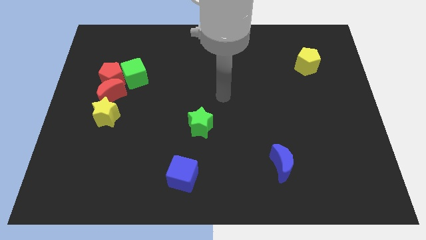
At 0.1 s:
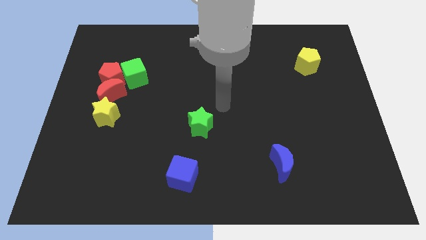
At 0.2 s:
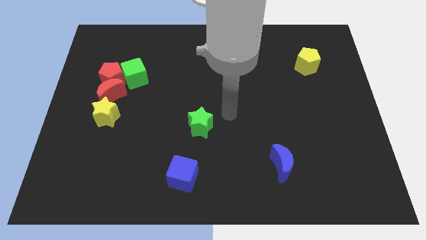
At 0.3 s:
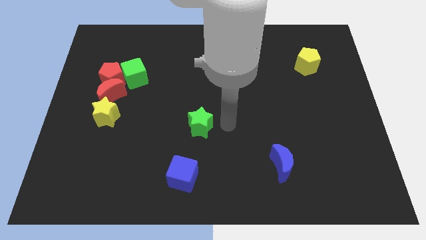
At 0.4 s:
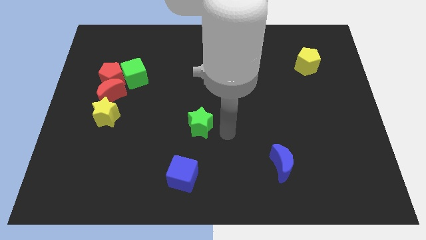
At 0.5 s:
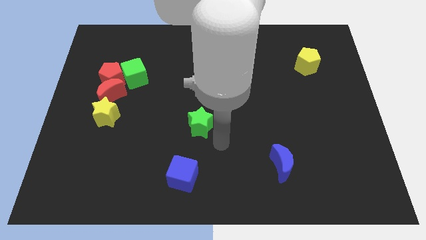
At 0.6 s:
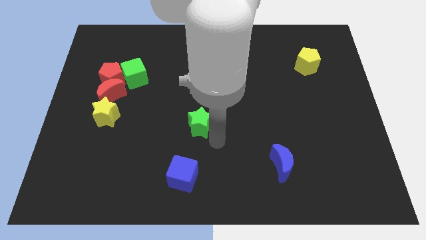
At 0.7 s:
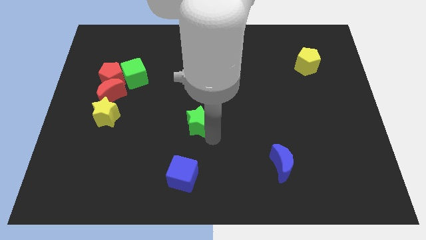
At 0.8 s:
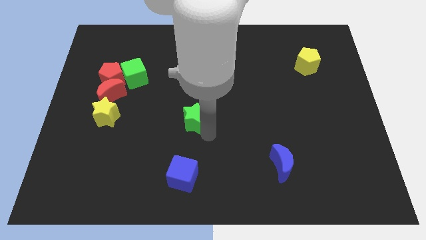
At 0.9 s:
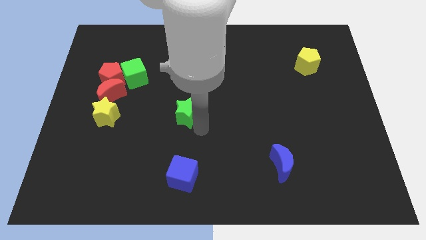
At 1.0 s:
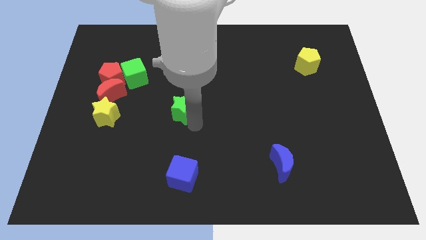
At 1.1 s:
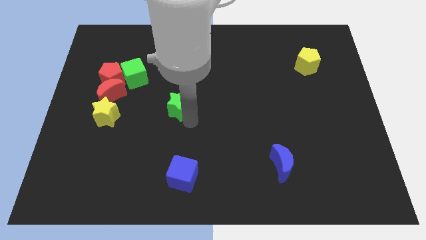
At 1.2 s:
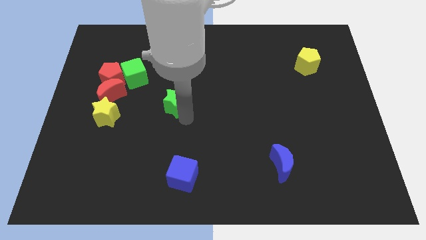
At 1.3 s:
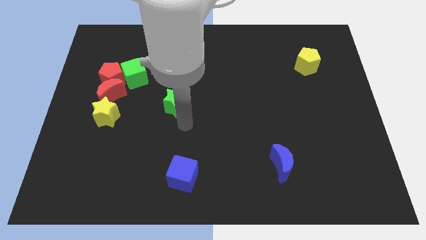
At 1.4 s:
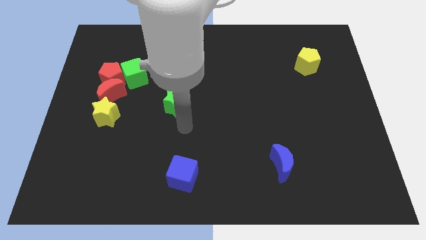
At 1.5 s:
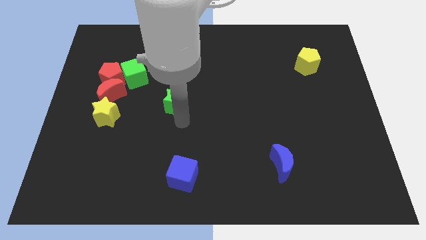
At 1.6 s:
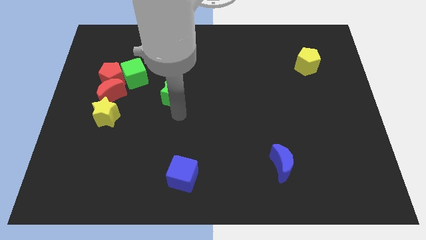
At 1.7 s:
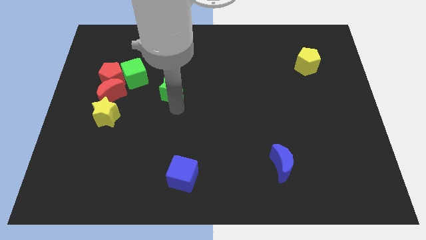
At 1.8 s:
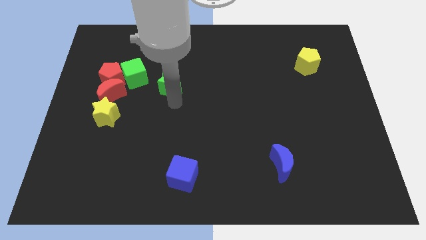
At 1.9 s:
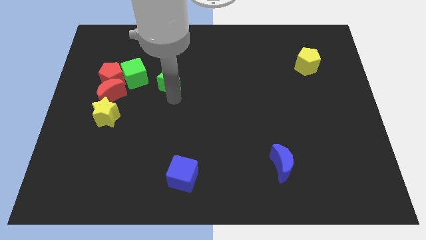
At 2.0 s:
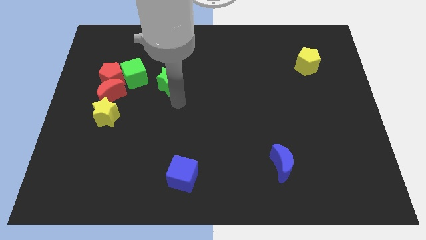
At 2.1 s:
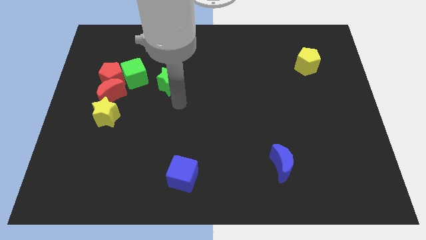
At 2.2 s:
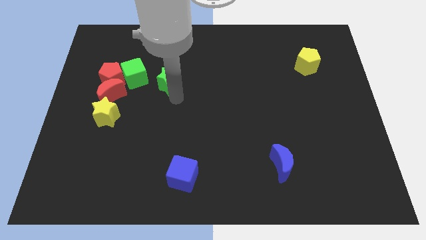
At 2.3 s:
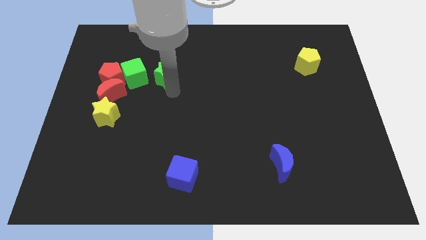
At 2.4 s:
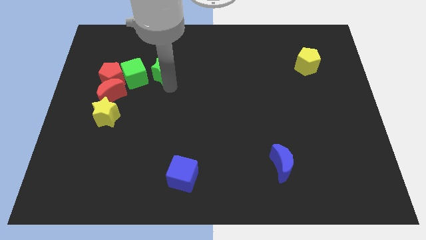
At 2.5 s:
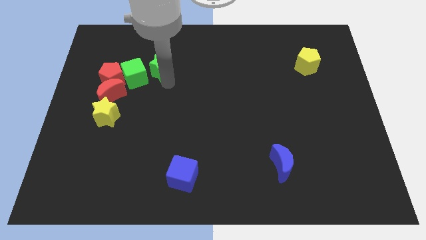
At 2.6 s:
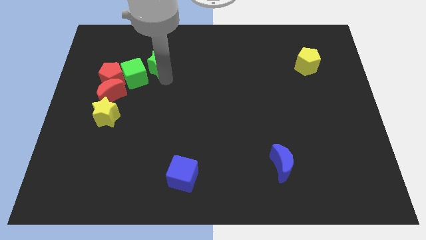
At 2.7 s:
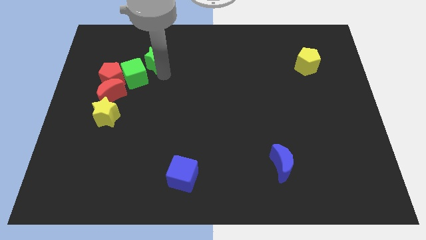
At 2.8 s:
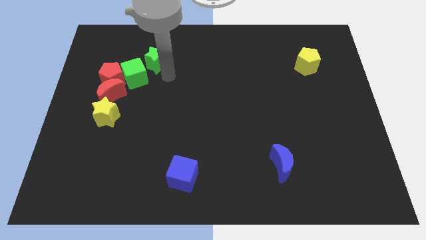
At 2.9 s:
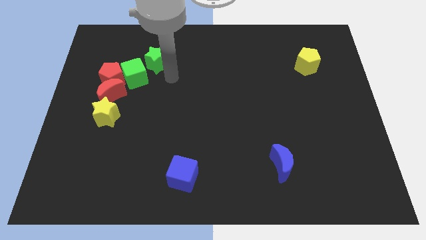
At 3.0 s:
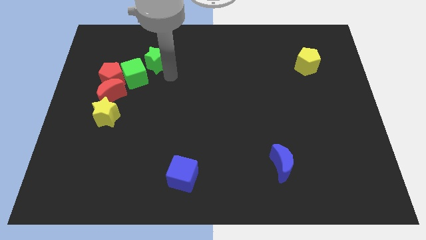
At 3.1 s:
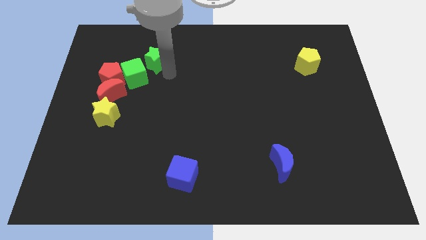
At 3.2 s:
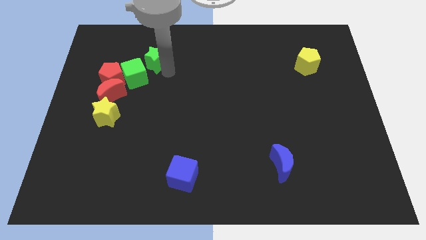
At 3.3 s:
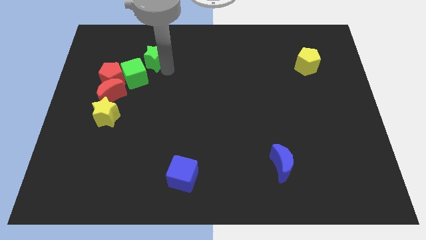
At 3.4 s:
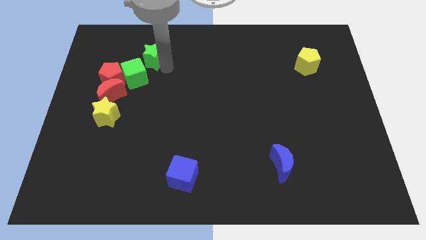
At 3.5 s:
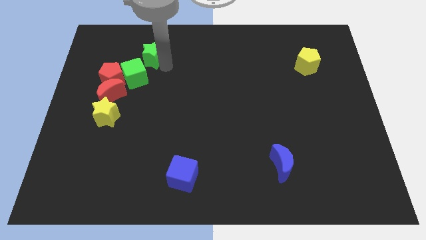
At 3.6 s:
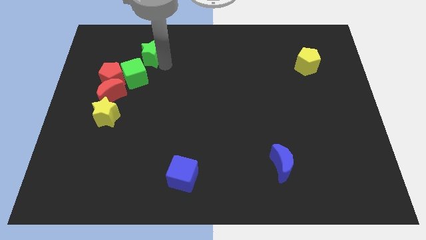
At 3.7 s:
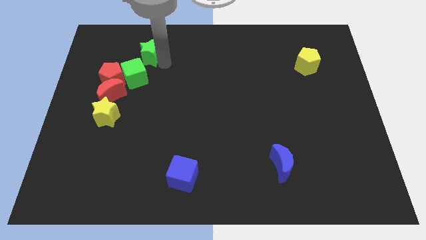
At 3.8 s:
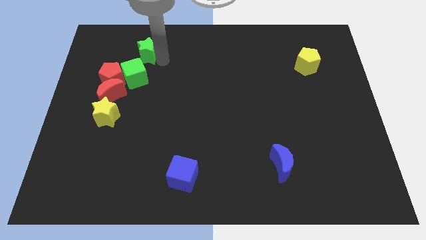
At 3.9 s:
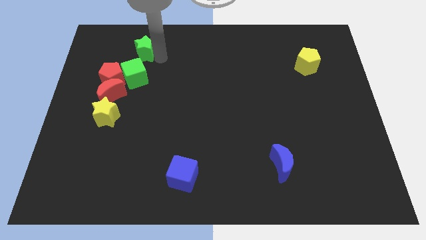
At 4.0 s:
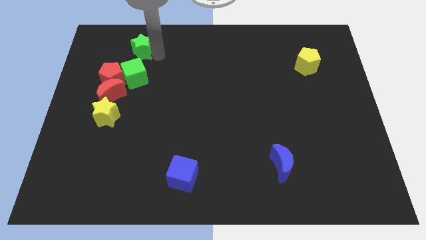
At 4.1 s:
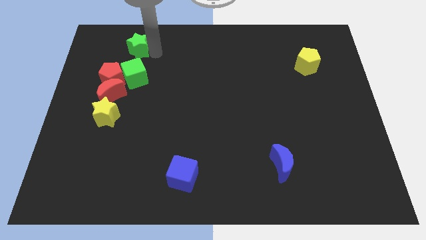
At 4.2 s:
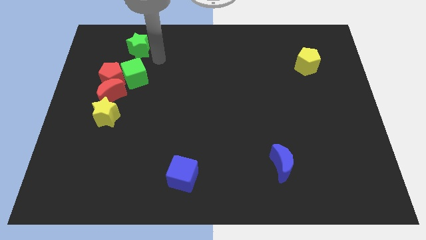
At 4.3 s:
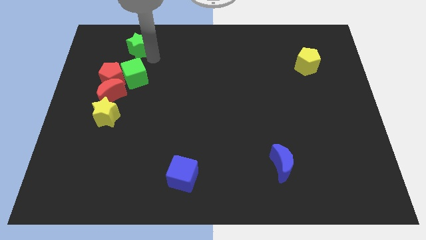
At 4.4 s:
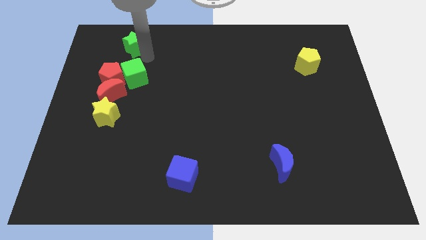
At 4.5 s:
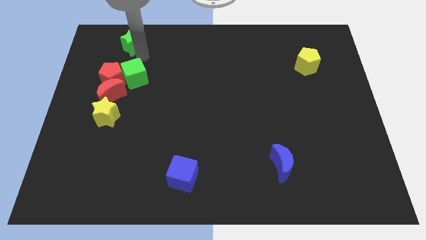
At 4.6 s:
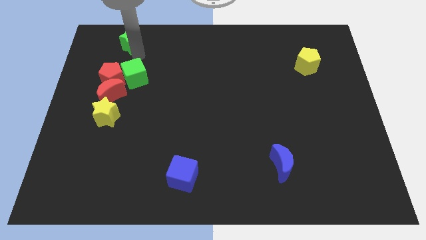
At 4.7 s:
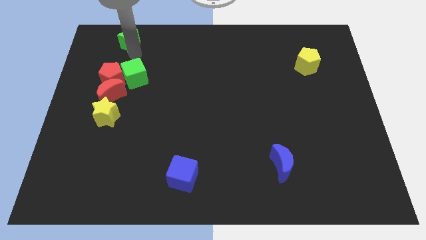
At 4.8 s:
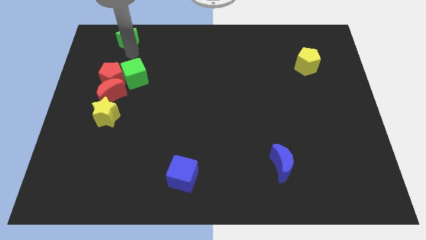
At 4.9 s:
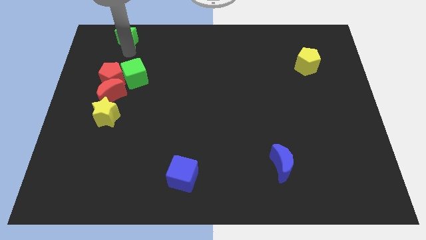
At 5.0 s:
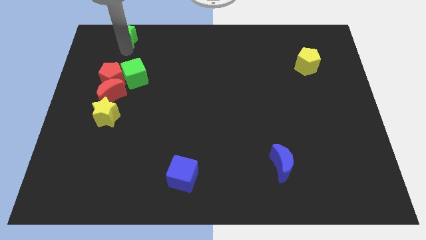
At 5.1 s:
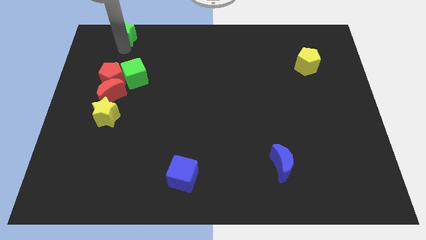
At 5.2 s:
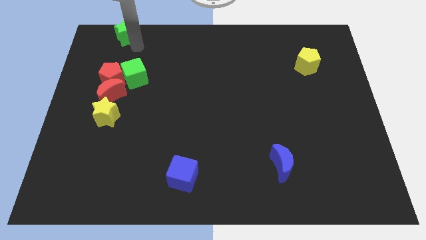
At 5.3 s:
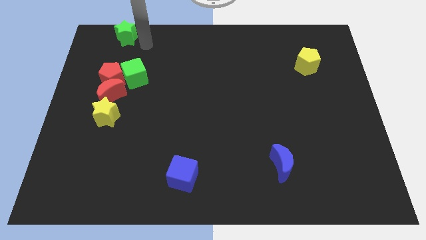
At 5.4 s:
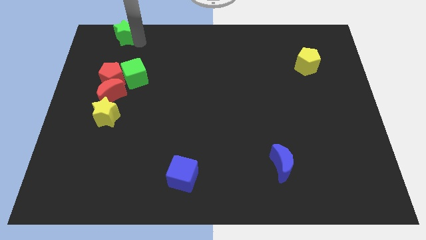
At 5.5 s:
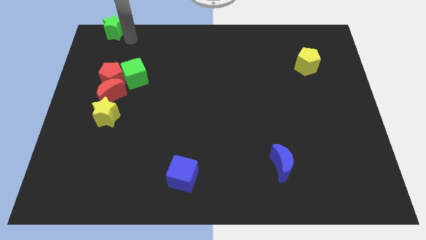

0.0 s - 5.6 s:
slide the green star to the upper left corner

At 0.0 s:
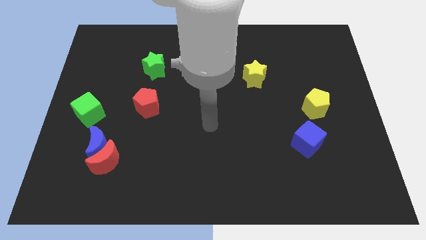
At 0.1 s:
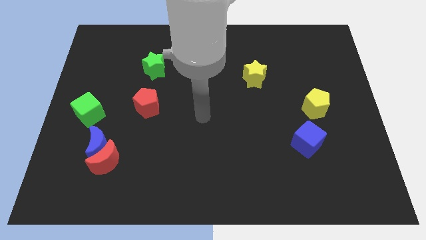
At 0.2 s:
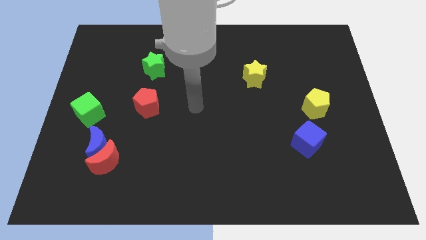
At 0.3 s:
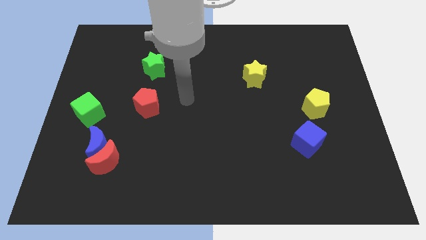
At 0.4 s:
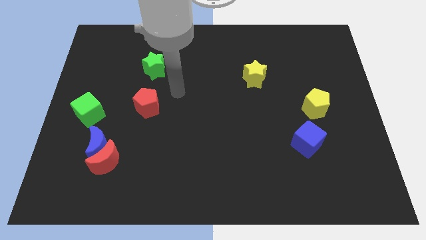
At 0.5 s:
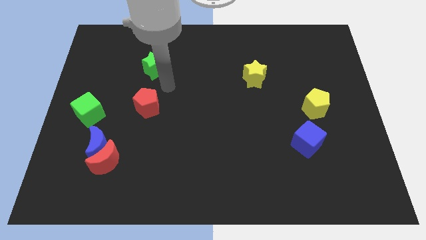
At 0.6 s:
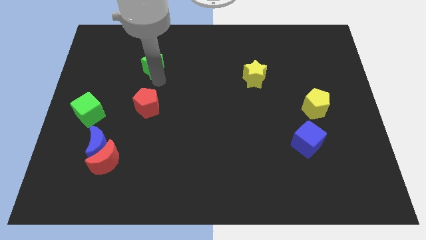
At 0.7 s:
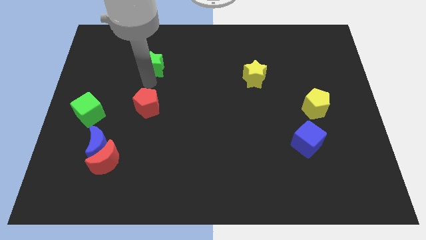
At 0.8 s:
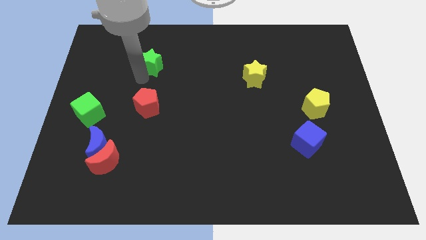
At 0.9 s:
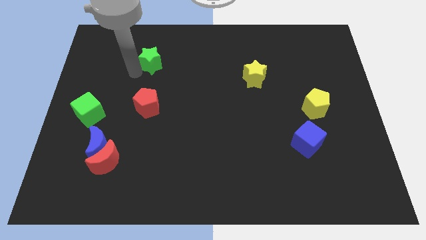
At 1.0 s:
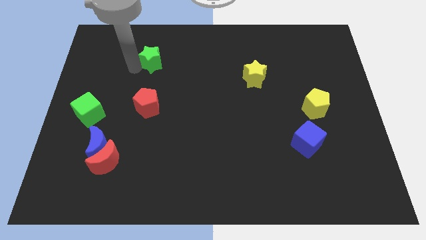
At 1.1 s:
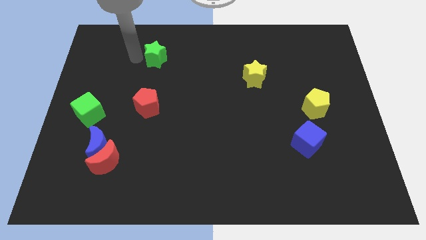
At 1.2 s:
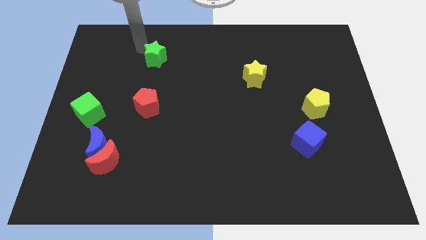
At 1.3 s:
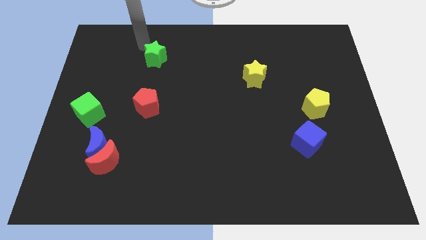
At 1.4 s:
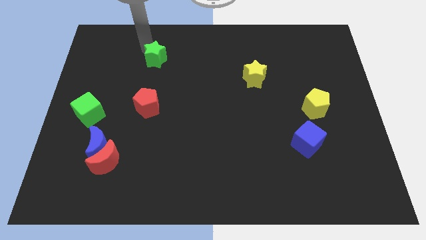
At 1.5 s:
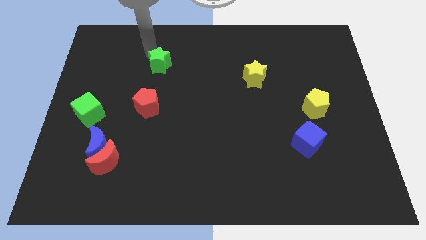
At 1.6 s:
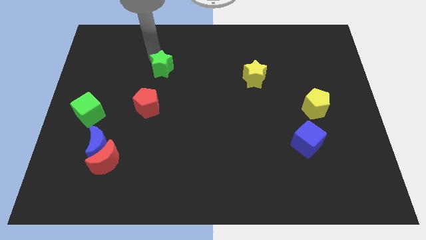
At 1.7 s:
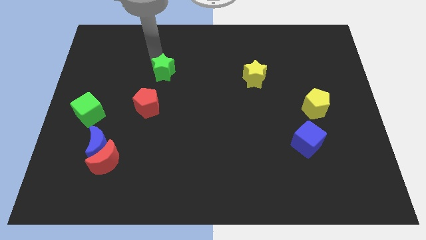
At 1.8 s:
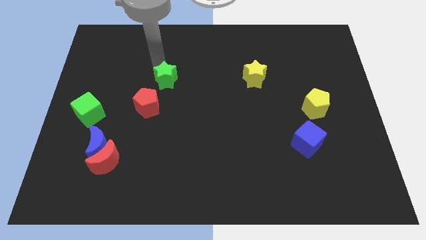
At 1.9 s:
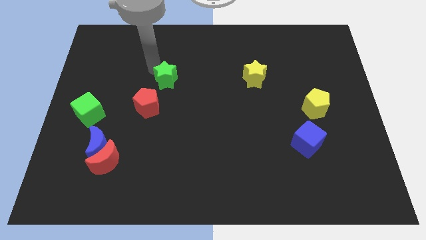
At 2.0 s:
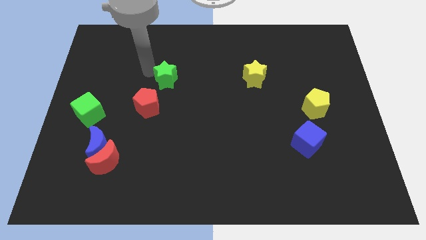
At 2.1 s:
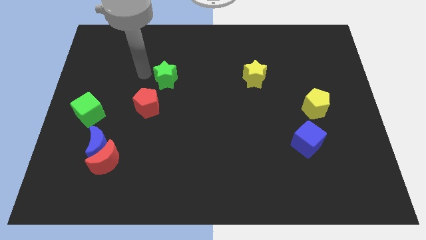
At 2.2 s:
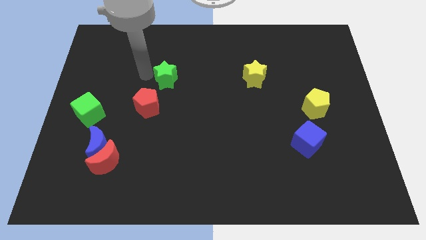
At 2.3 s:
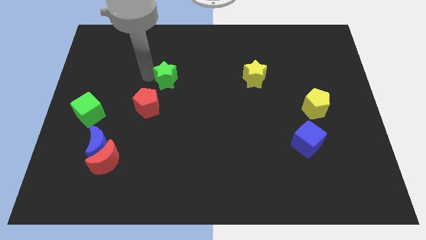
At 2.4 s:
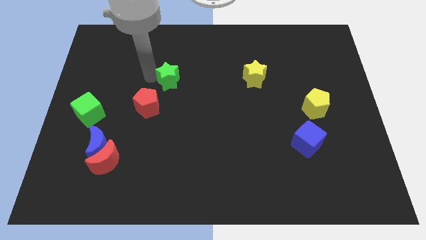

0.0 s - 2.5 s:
put the green star to the middle of the board
